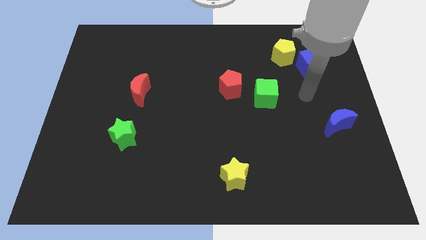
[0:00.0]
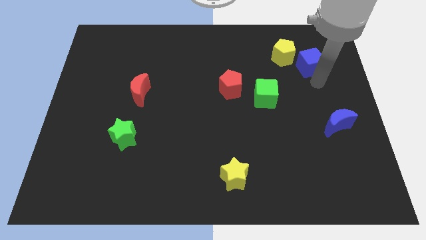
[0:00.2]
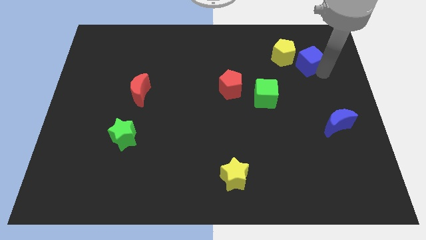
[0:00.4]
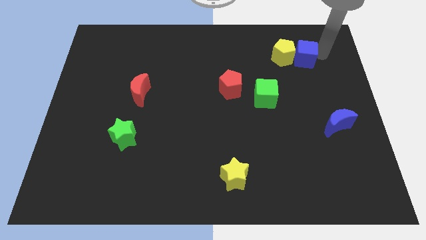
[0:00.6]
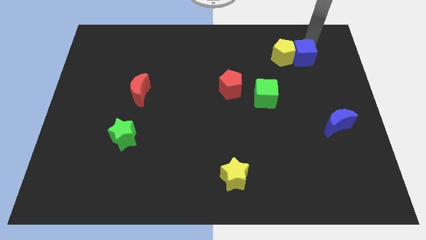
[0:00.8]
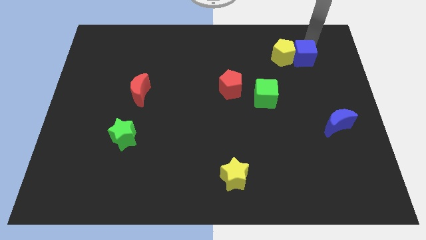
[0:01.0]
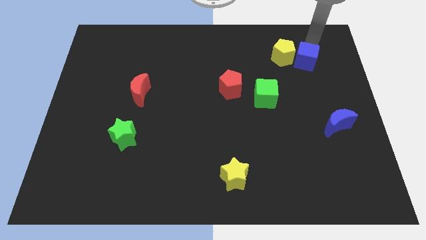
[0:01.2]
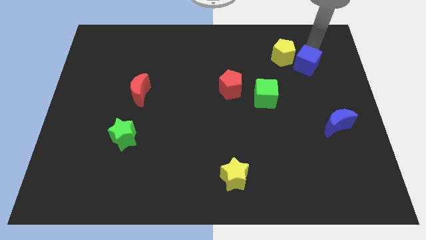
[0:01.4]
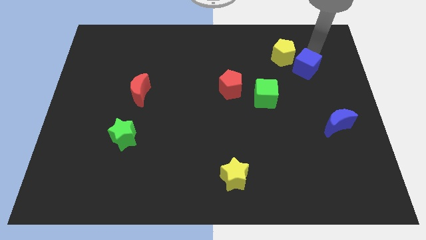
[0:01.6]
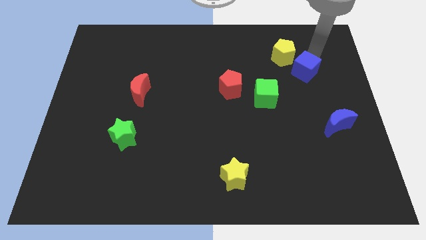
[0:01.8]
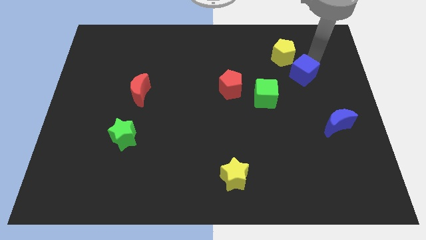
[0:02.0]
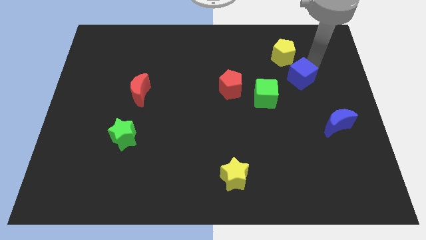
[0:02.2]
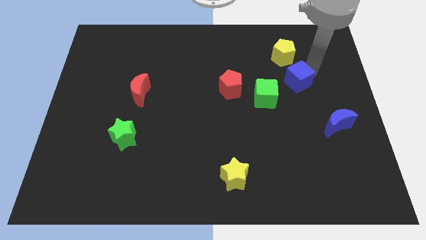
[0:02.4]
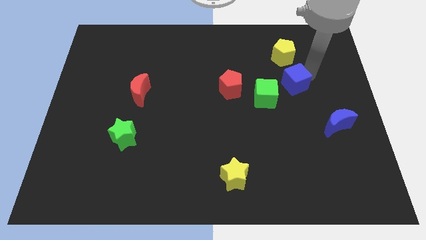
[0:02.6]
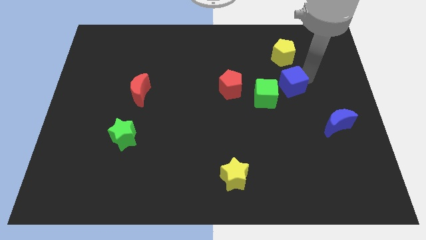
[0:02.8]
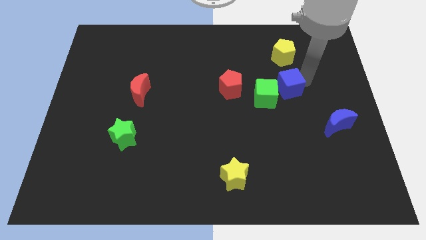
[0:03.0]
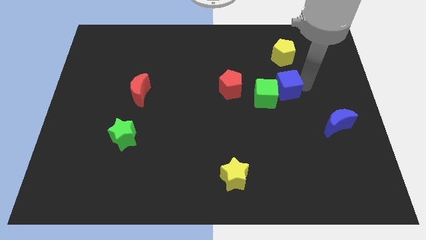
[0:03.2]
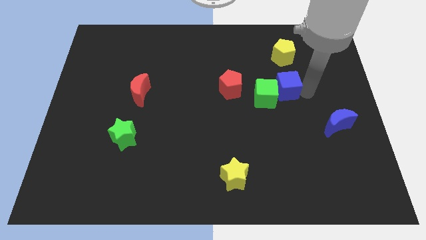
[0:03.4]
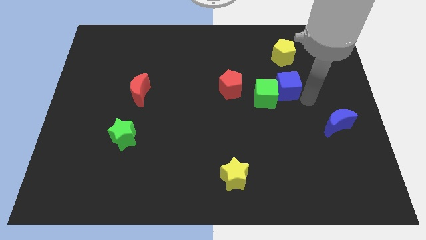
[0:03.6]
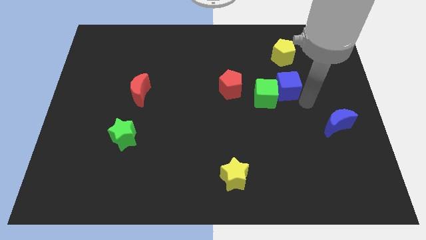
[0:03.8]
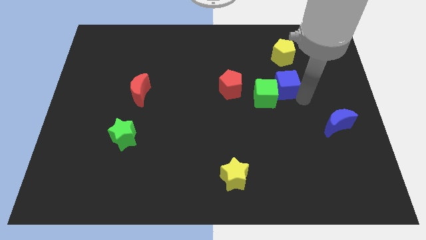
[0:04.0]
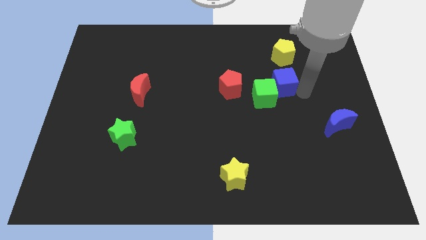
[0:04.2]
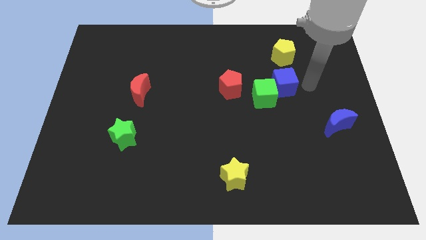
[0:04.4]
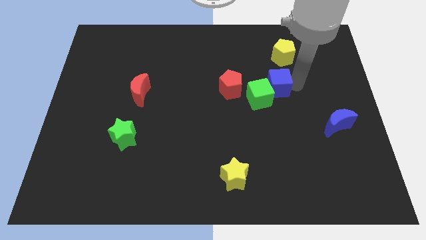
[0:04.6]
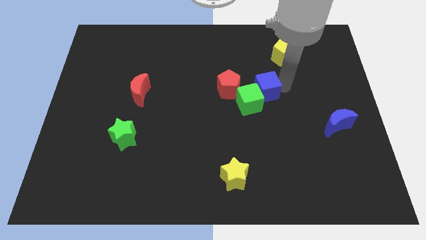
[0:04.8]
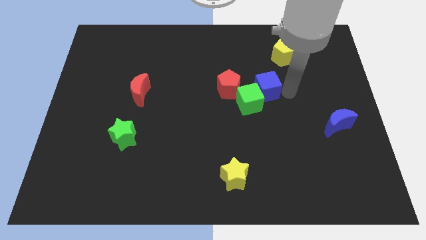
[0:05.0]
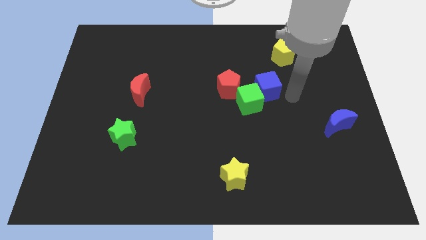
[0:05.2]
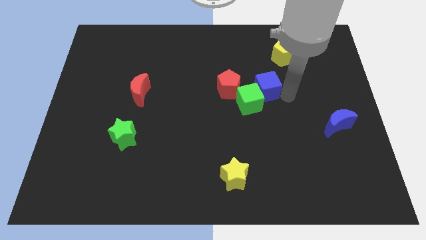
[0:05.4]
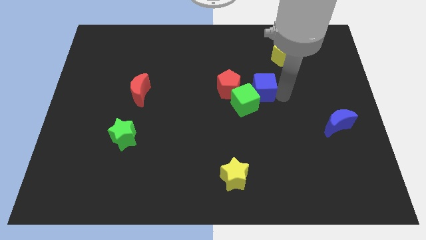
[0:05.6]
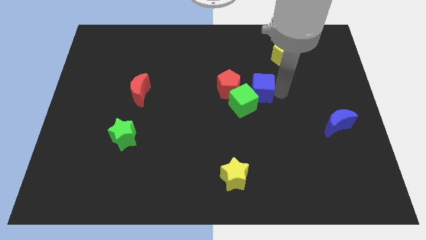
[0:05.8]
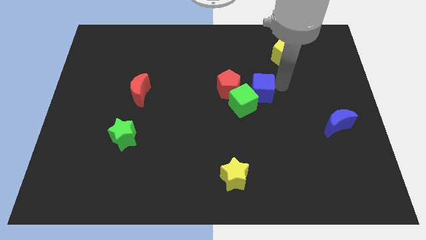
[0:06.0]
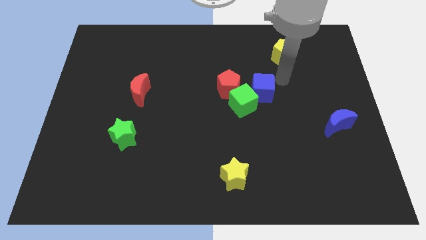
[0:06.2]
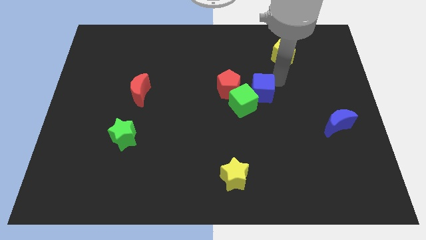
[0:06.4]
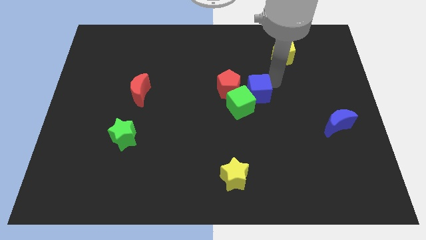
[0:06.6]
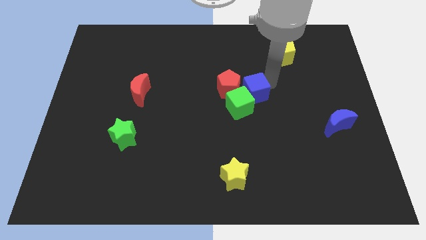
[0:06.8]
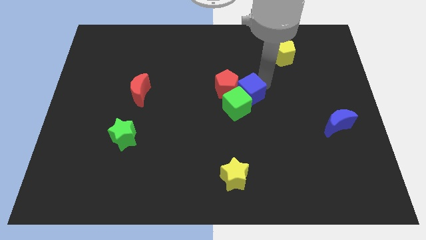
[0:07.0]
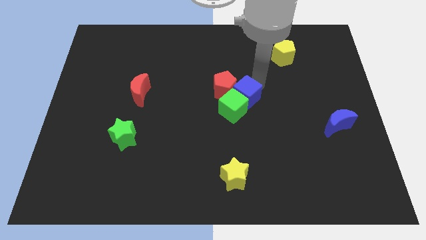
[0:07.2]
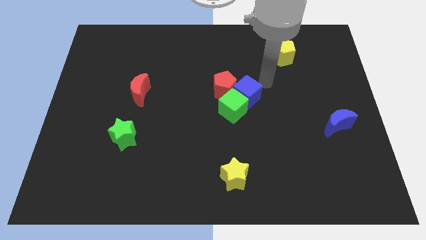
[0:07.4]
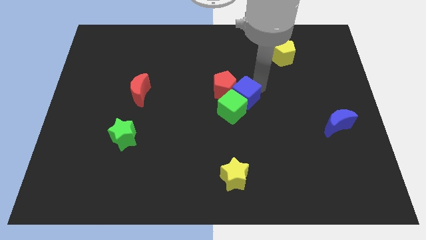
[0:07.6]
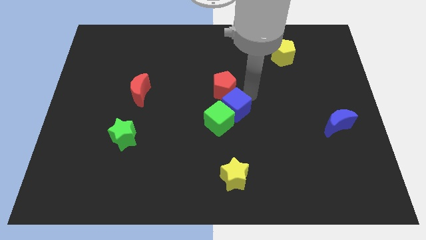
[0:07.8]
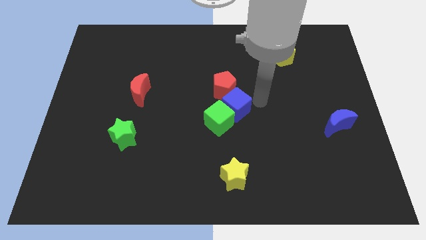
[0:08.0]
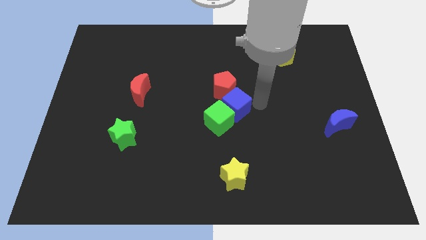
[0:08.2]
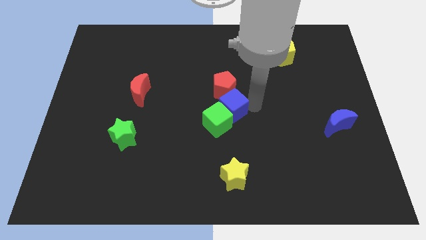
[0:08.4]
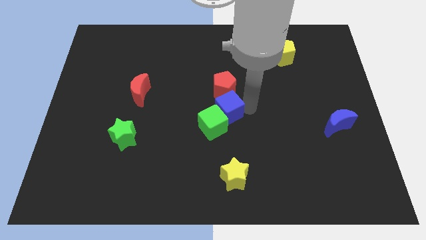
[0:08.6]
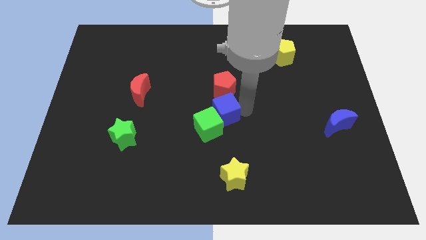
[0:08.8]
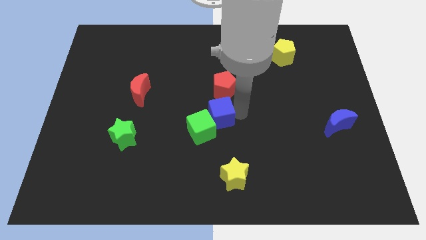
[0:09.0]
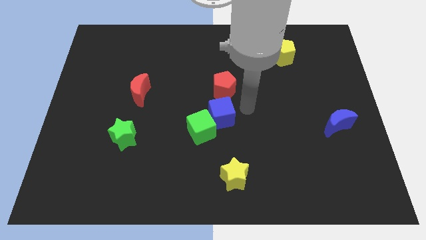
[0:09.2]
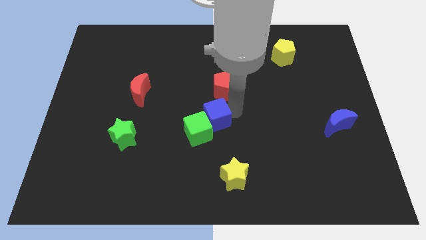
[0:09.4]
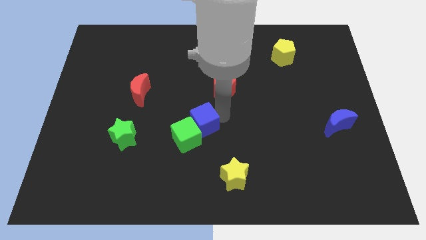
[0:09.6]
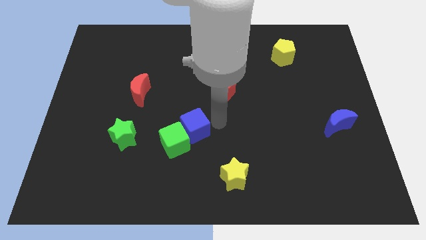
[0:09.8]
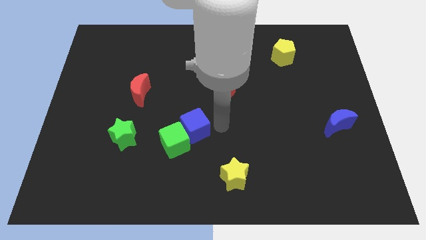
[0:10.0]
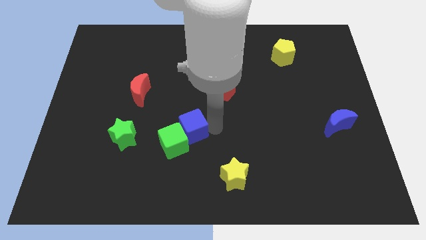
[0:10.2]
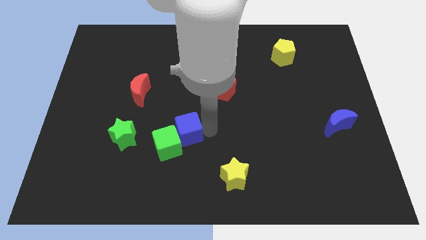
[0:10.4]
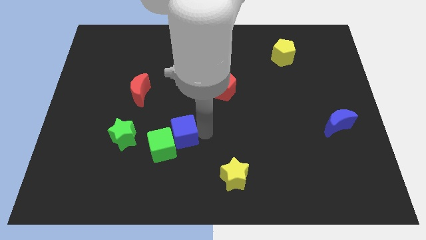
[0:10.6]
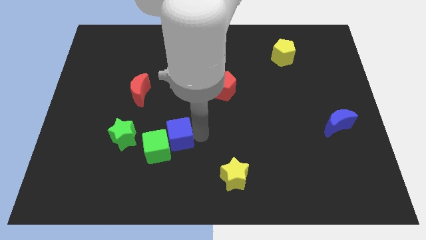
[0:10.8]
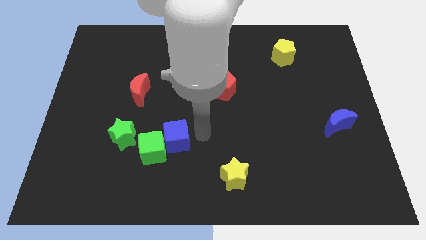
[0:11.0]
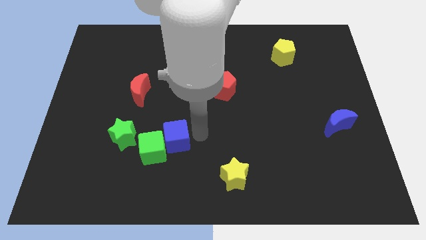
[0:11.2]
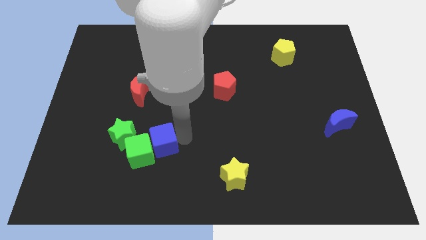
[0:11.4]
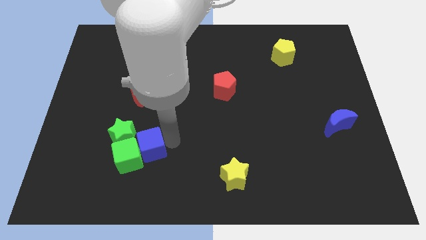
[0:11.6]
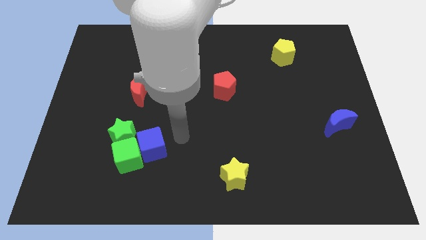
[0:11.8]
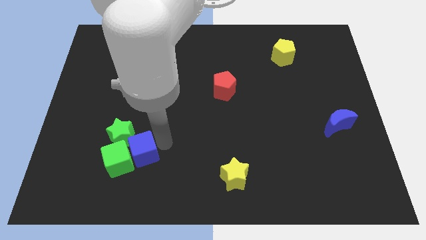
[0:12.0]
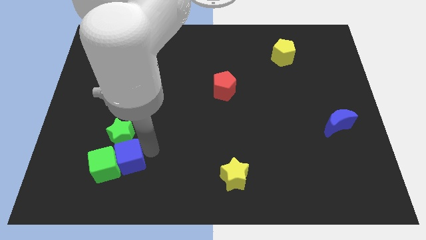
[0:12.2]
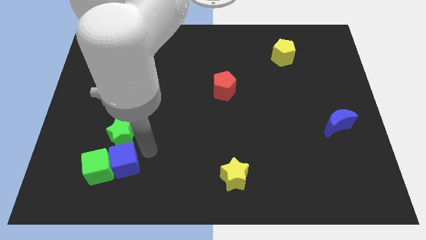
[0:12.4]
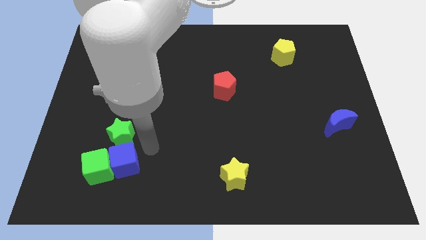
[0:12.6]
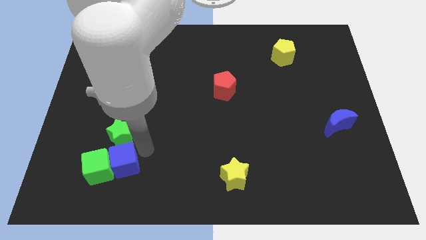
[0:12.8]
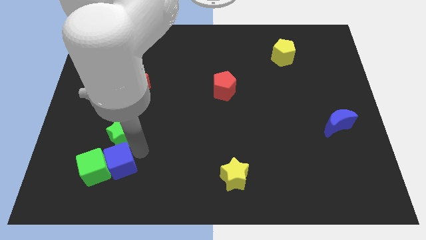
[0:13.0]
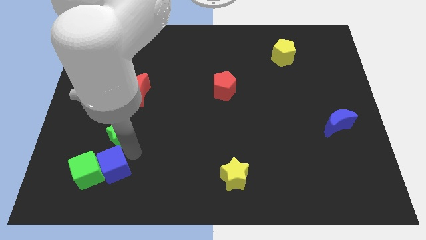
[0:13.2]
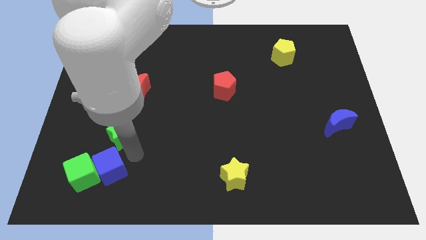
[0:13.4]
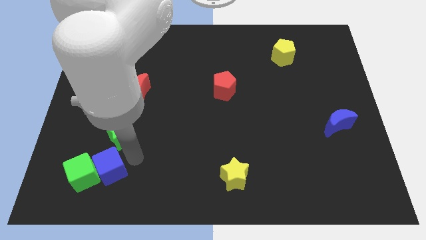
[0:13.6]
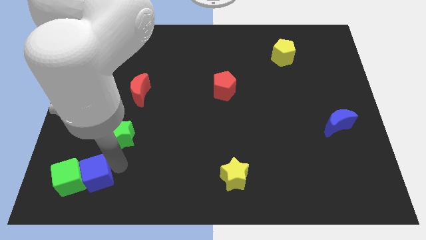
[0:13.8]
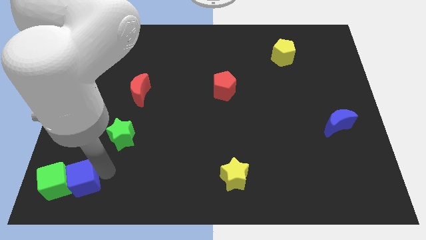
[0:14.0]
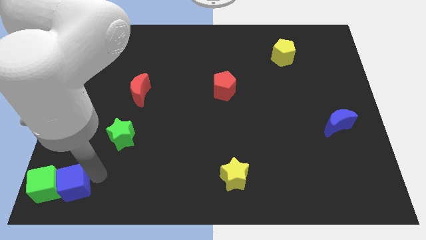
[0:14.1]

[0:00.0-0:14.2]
slide the blue cube to the bottom left
